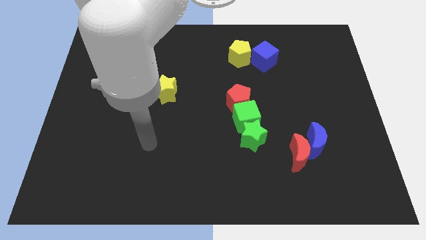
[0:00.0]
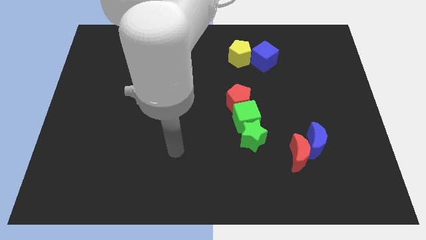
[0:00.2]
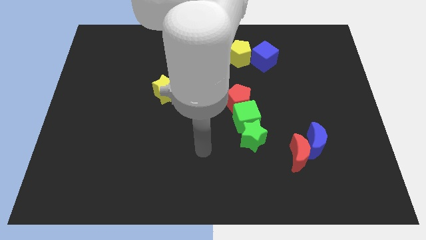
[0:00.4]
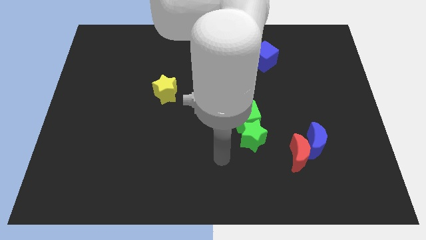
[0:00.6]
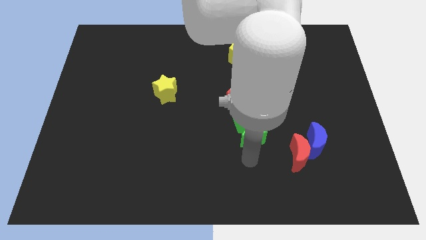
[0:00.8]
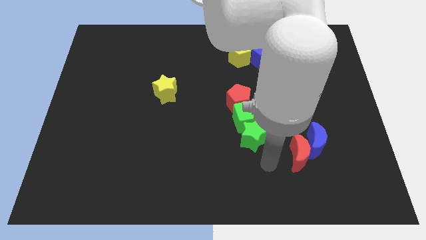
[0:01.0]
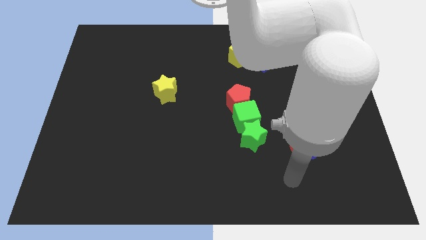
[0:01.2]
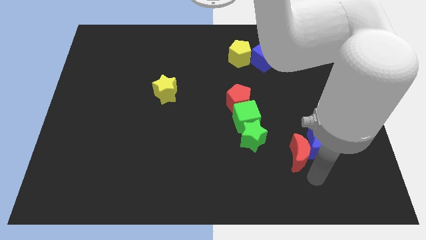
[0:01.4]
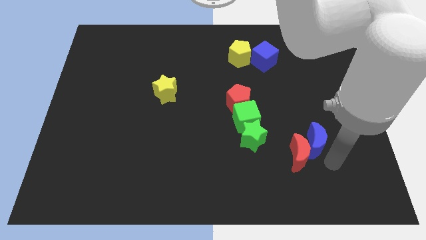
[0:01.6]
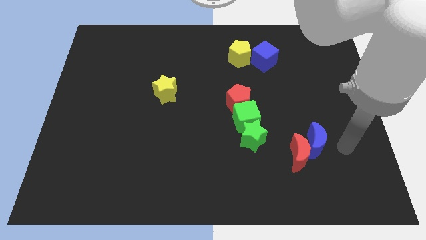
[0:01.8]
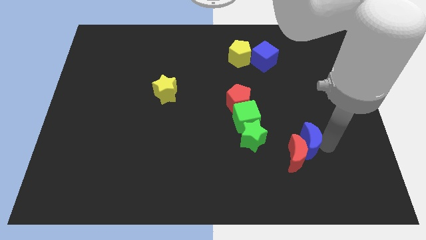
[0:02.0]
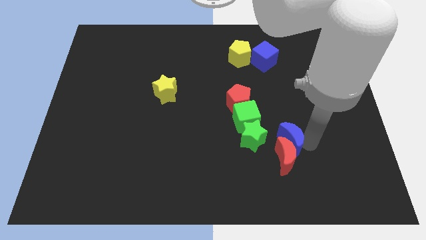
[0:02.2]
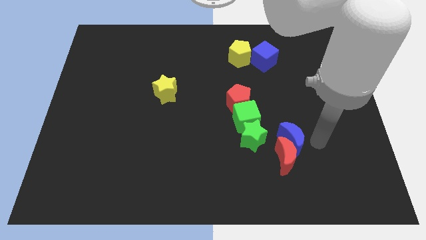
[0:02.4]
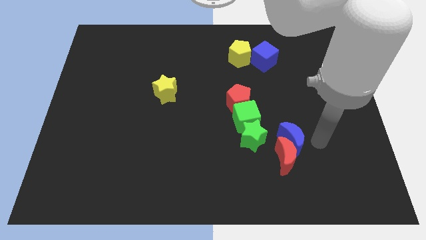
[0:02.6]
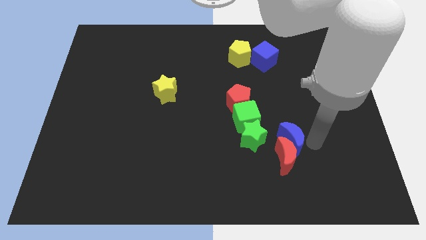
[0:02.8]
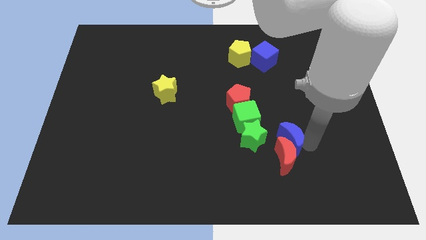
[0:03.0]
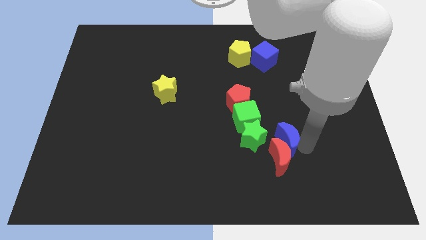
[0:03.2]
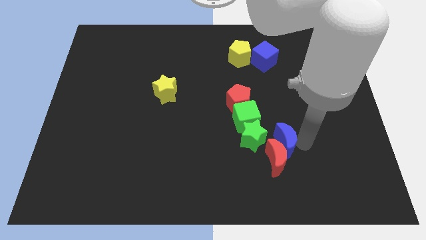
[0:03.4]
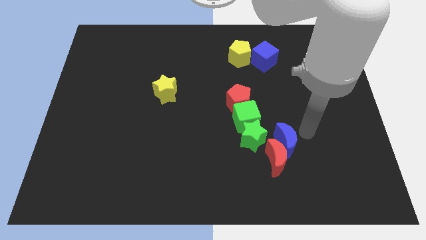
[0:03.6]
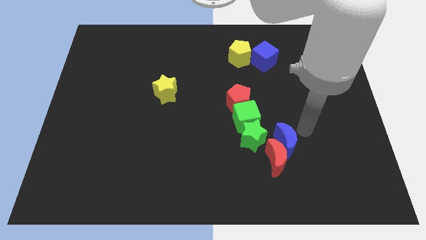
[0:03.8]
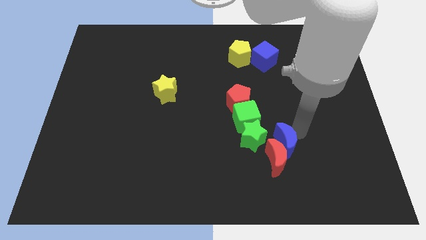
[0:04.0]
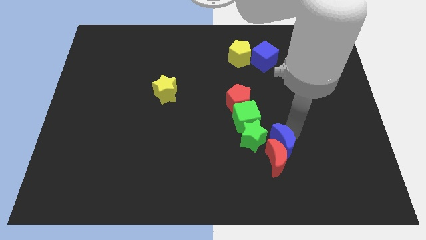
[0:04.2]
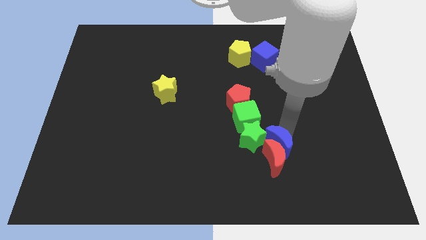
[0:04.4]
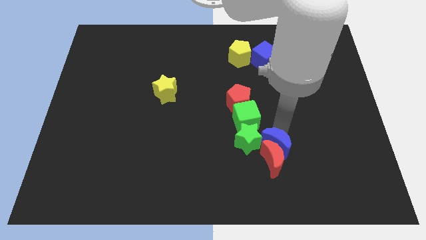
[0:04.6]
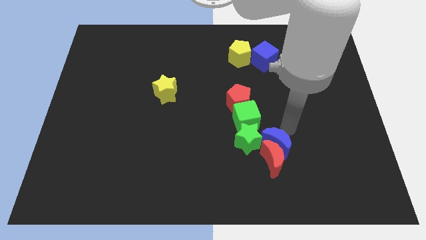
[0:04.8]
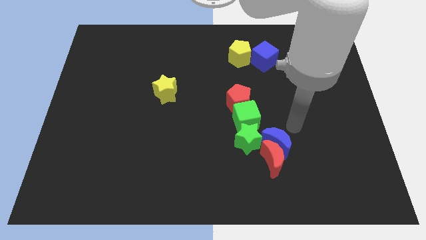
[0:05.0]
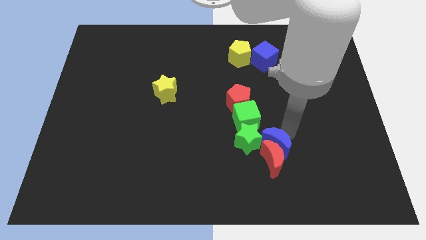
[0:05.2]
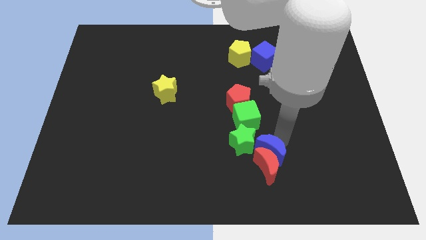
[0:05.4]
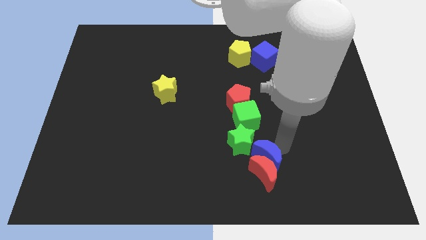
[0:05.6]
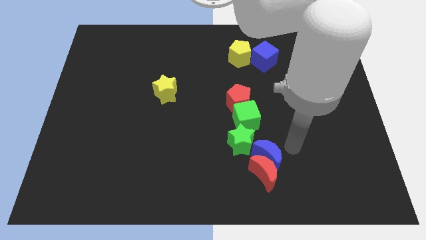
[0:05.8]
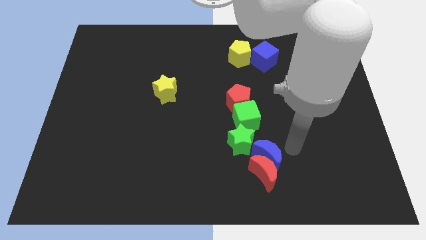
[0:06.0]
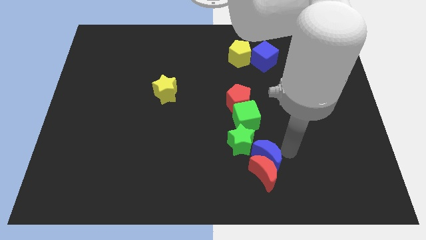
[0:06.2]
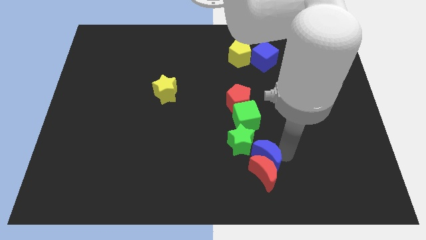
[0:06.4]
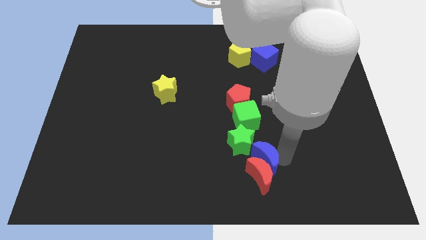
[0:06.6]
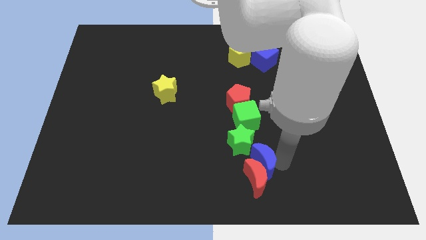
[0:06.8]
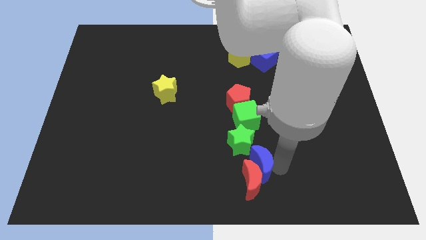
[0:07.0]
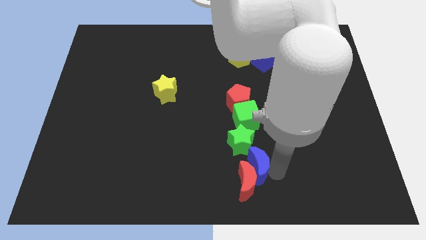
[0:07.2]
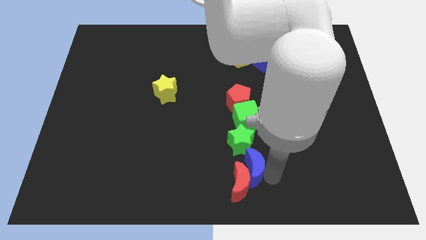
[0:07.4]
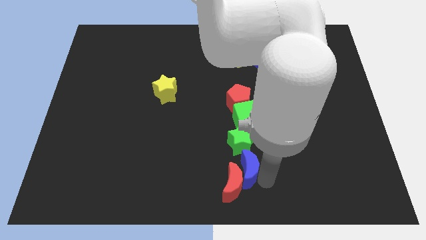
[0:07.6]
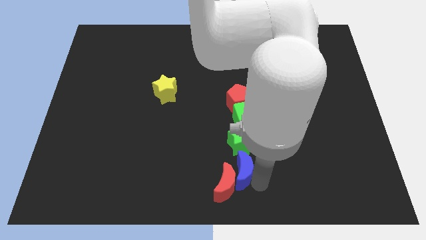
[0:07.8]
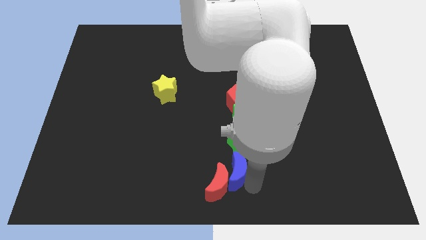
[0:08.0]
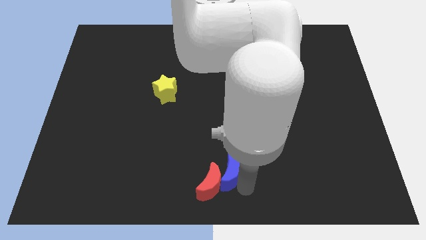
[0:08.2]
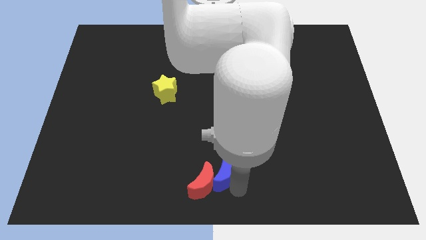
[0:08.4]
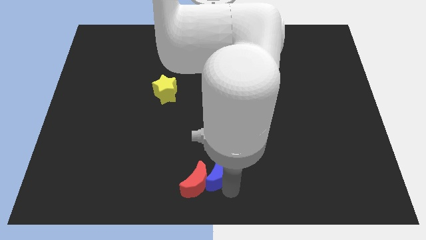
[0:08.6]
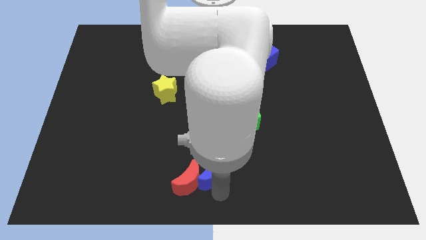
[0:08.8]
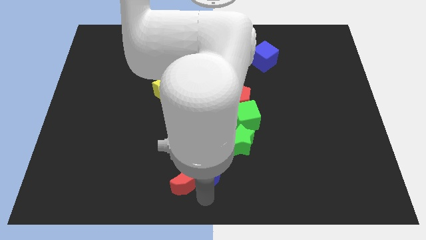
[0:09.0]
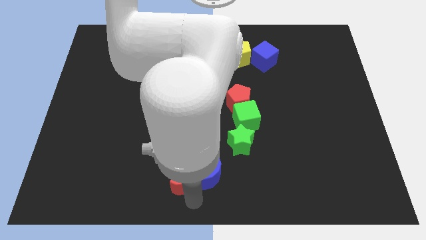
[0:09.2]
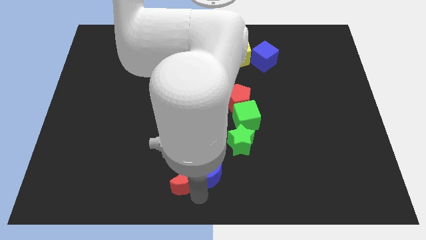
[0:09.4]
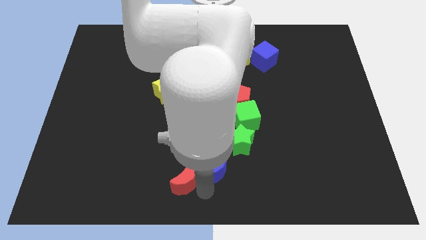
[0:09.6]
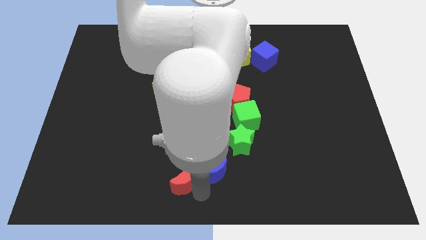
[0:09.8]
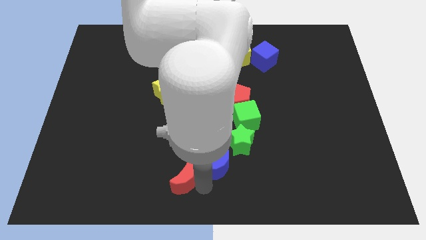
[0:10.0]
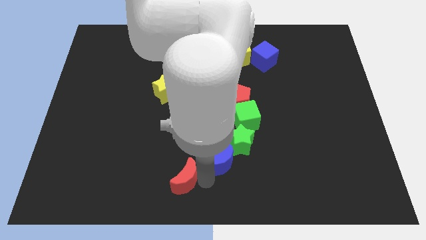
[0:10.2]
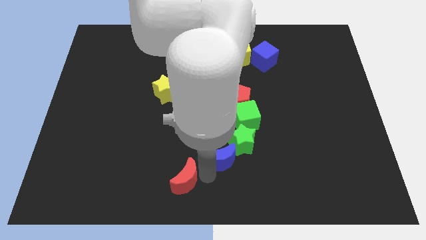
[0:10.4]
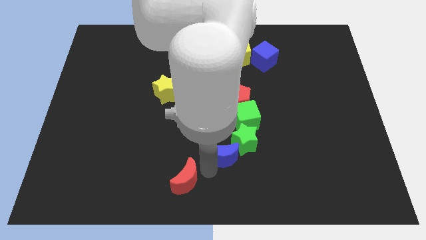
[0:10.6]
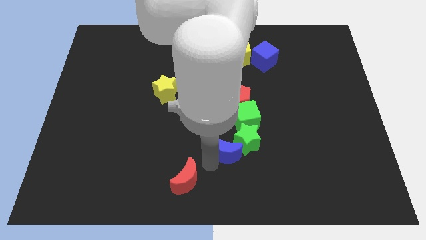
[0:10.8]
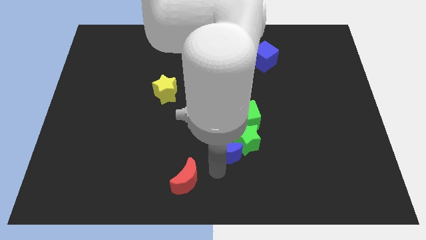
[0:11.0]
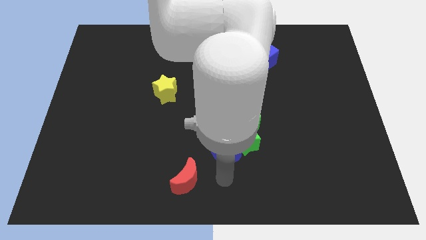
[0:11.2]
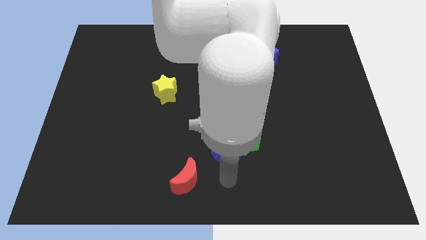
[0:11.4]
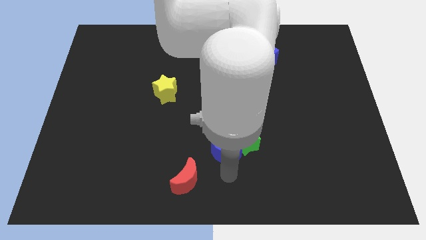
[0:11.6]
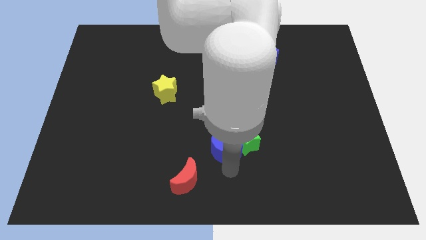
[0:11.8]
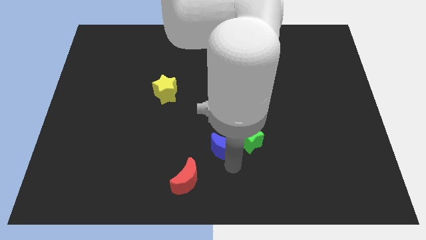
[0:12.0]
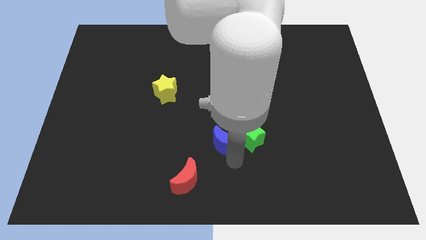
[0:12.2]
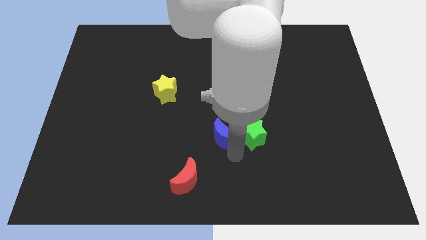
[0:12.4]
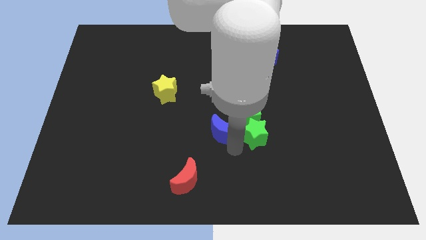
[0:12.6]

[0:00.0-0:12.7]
slide the blue moon diagonally down and to the left of the red pentagon

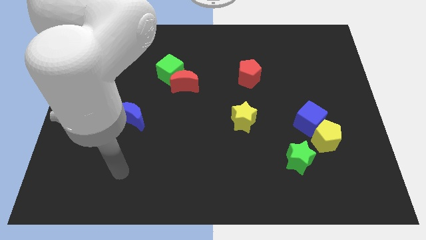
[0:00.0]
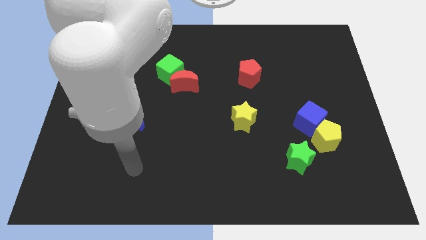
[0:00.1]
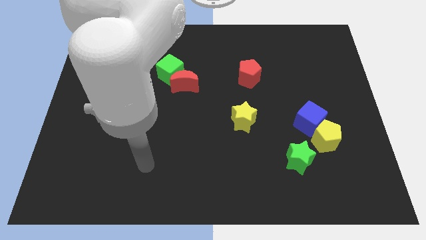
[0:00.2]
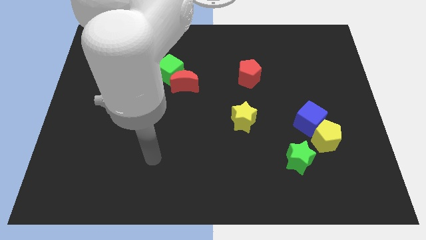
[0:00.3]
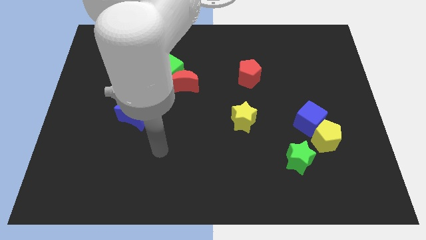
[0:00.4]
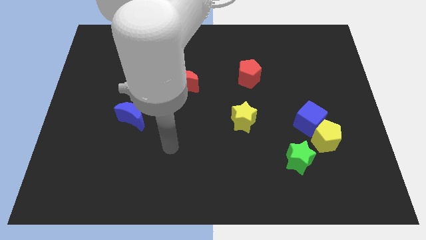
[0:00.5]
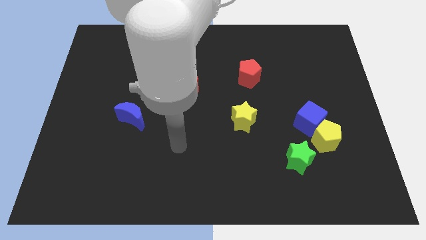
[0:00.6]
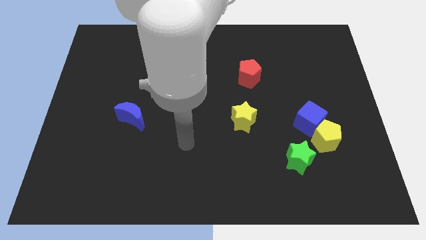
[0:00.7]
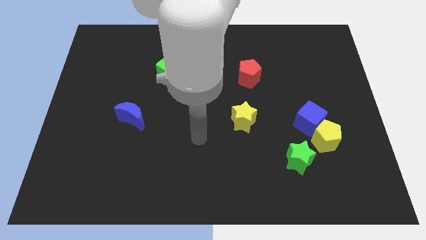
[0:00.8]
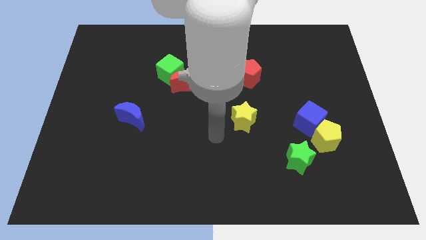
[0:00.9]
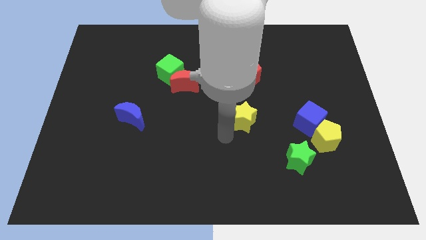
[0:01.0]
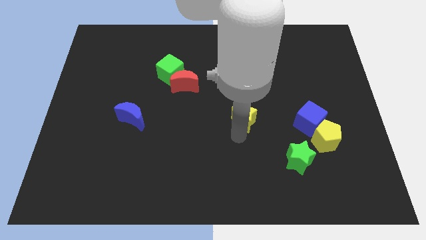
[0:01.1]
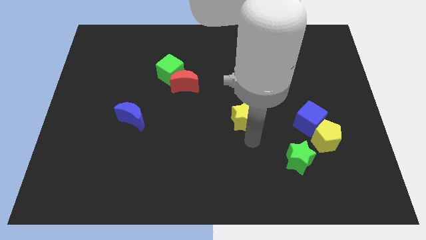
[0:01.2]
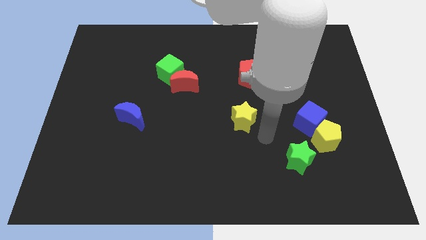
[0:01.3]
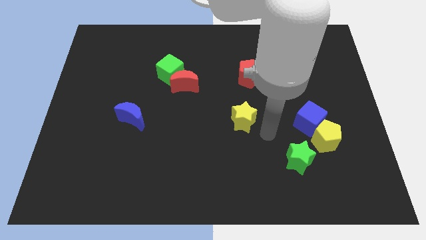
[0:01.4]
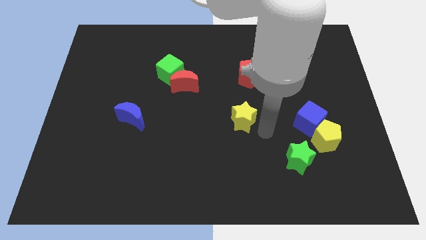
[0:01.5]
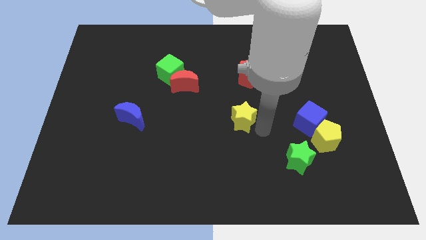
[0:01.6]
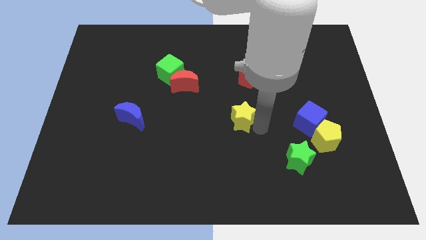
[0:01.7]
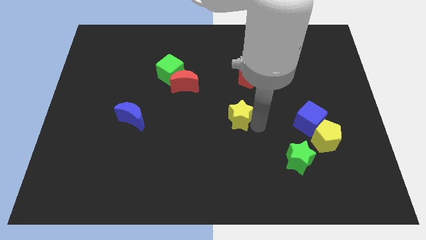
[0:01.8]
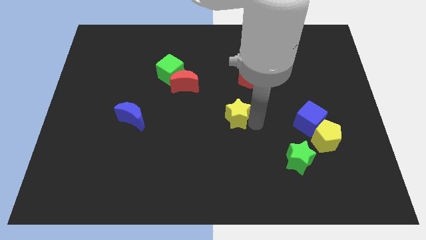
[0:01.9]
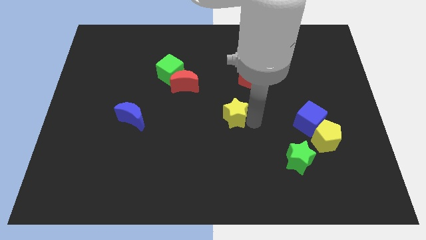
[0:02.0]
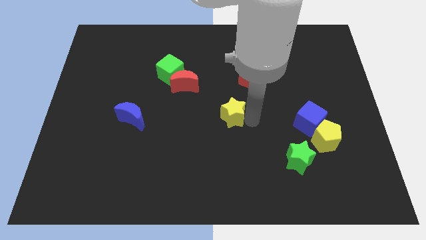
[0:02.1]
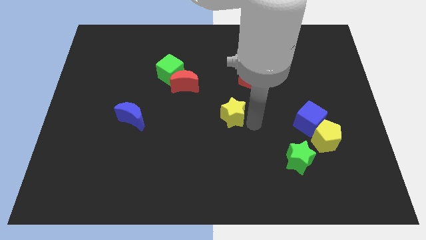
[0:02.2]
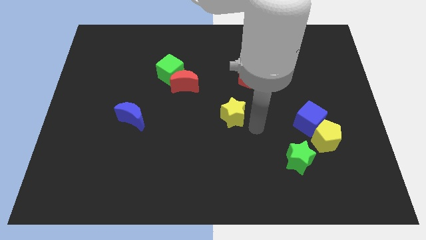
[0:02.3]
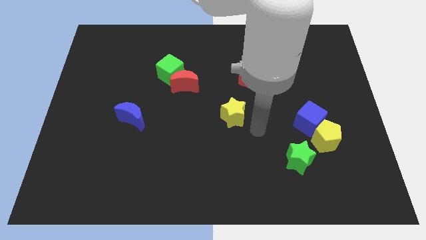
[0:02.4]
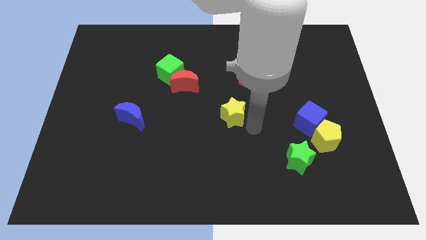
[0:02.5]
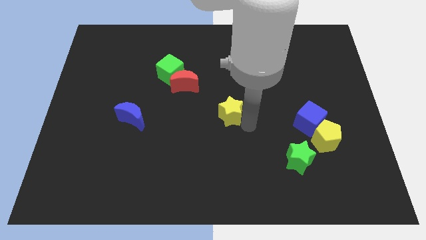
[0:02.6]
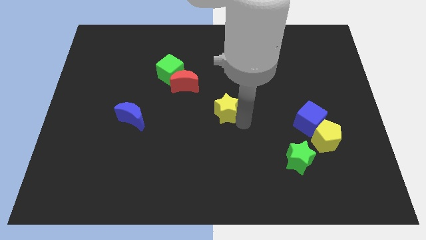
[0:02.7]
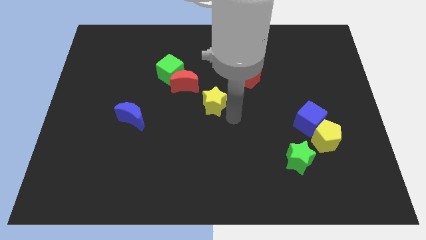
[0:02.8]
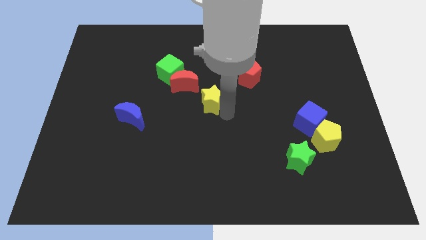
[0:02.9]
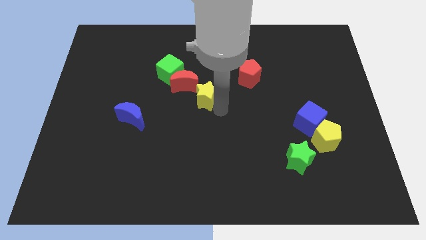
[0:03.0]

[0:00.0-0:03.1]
push the yellow star to the bottom right of the green cube
